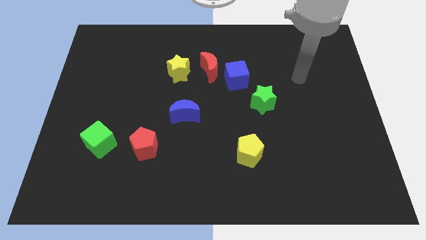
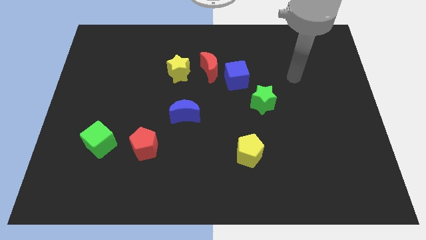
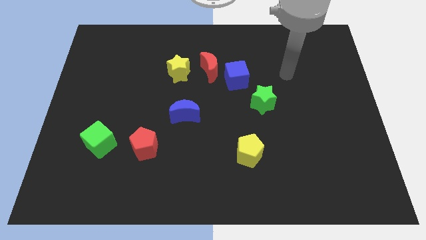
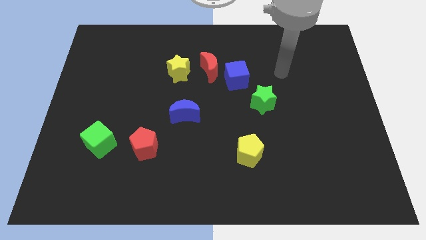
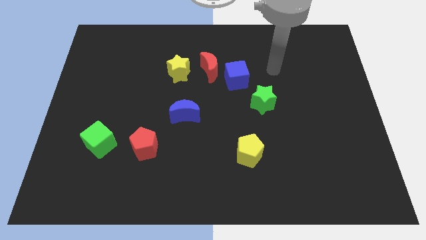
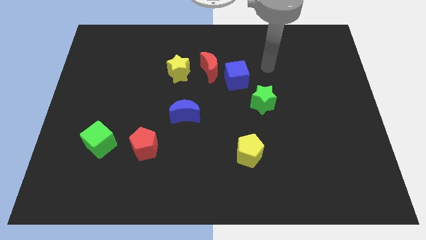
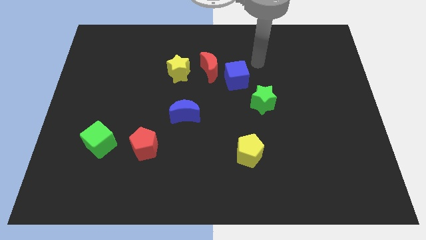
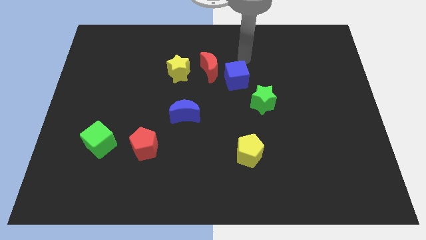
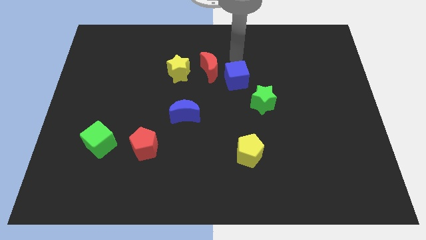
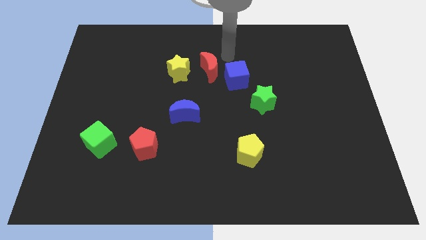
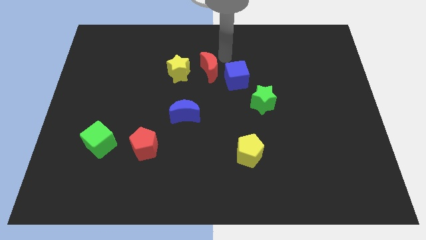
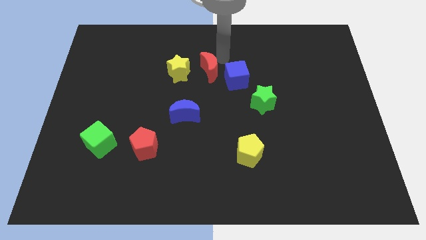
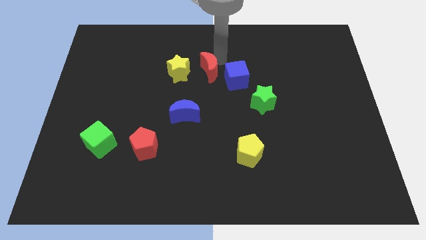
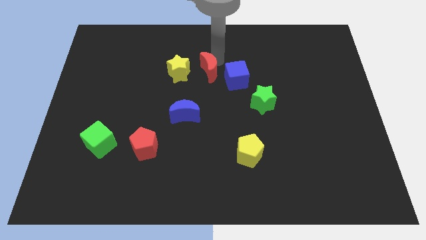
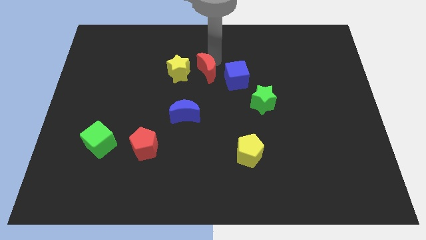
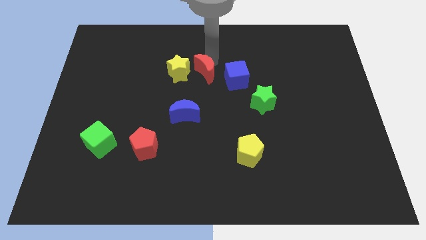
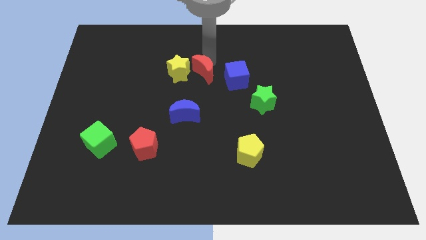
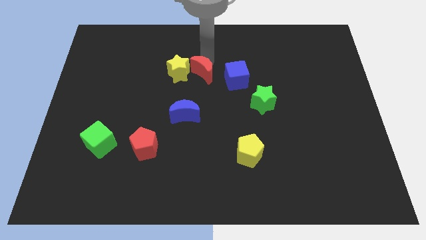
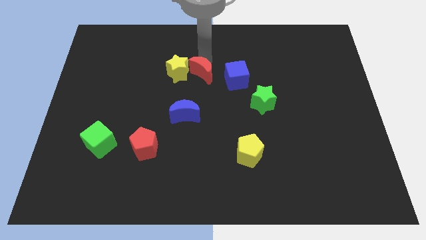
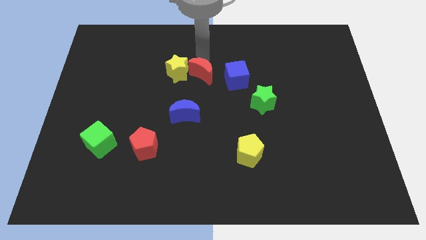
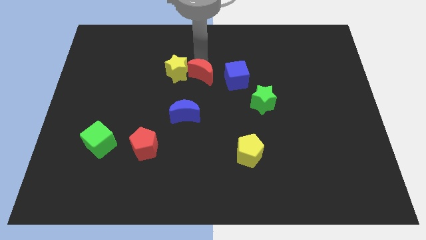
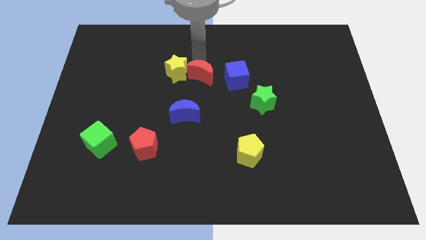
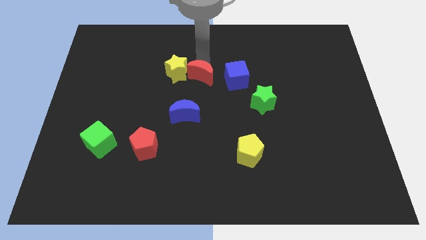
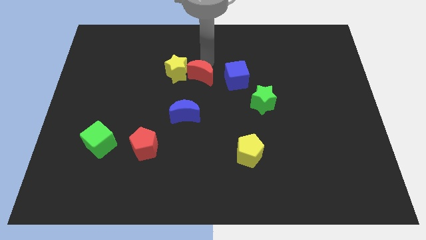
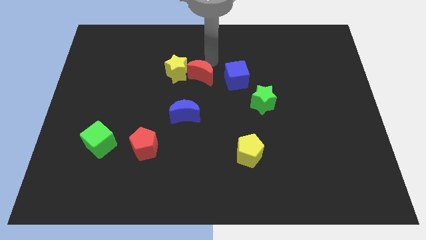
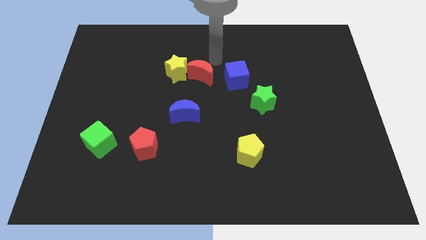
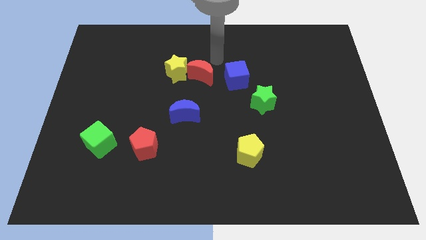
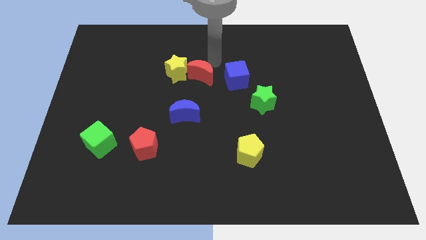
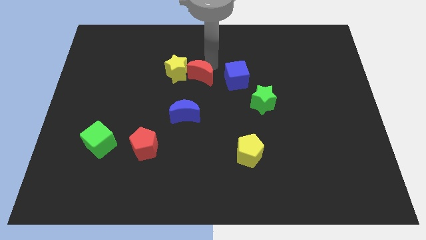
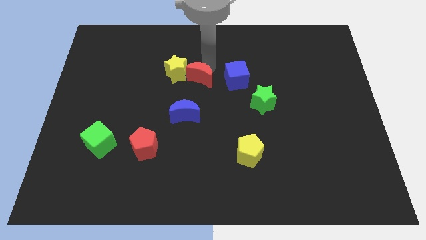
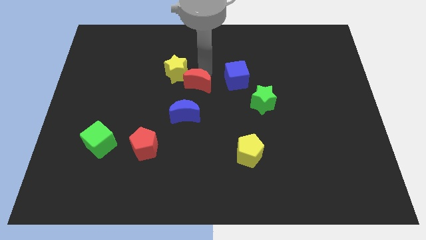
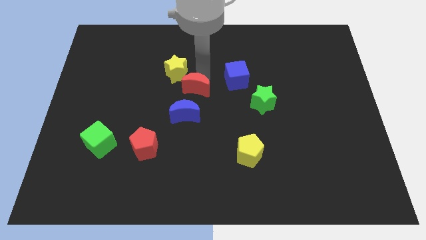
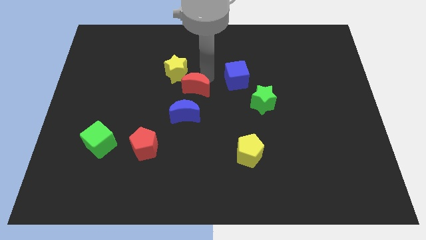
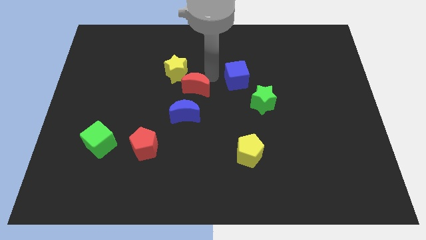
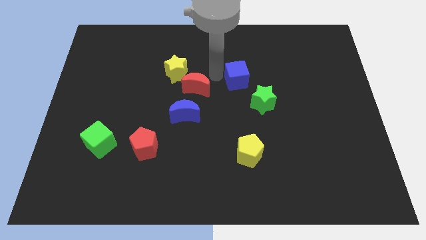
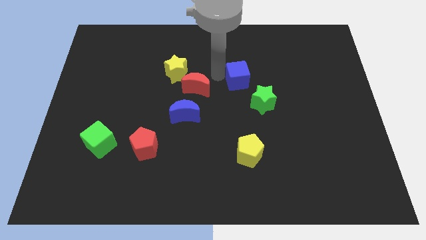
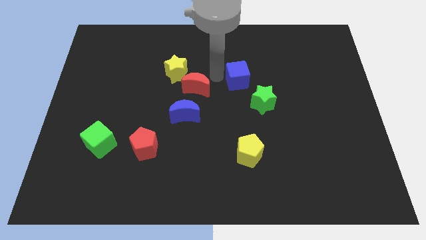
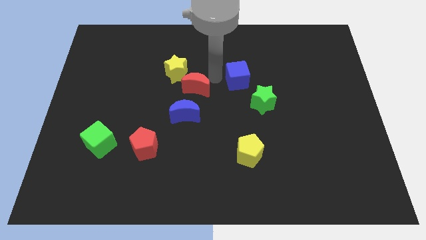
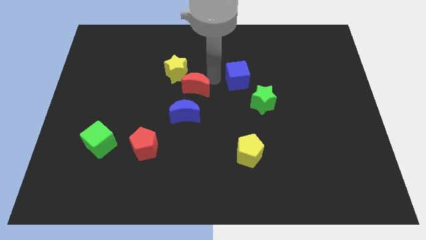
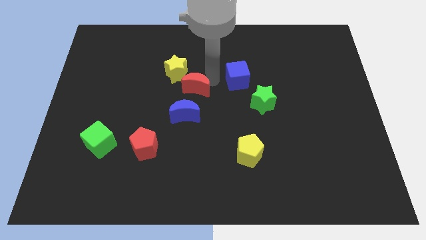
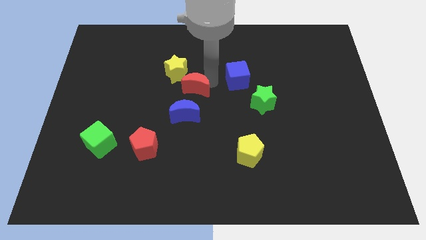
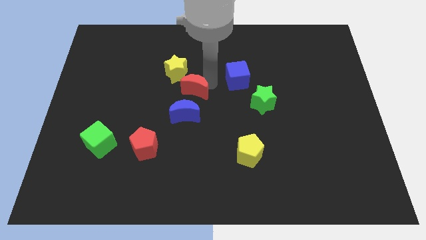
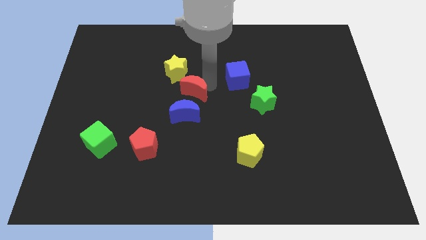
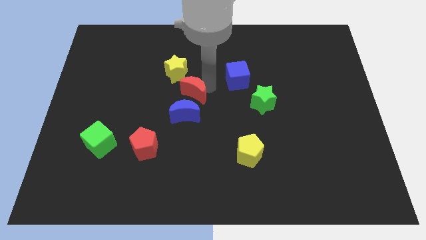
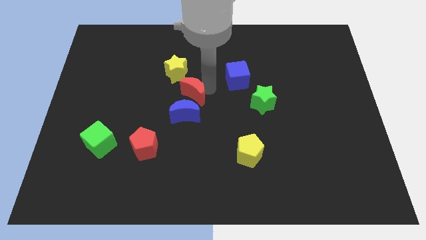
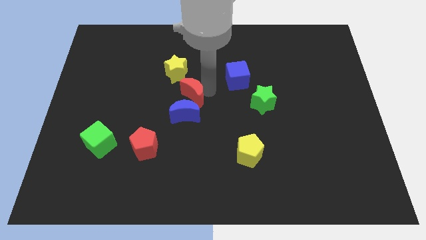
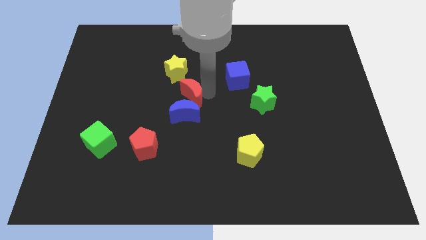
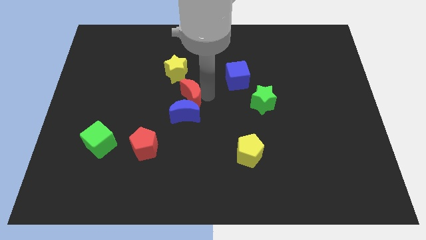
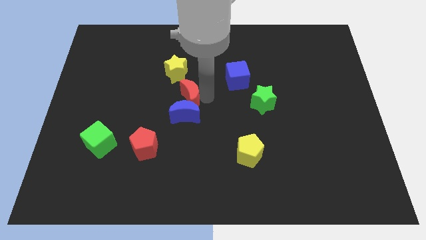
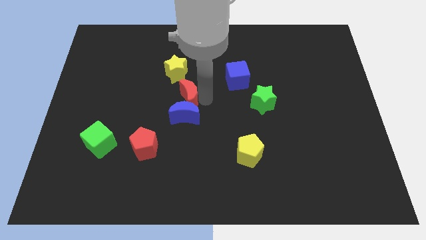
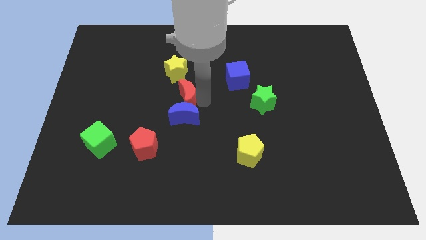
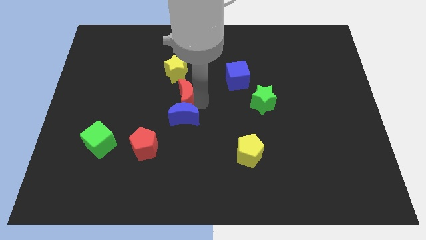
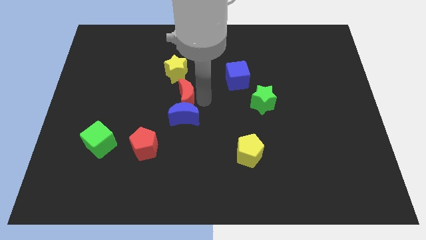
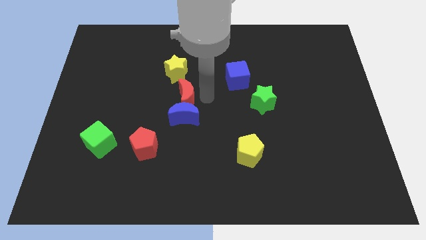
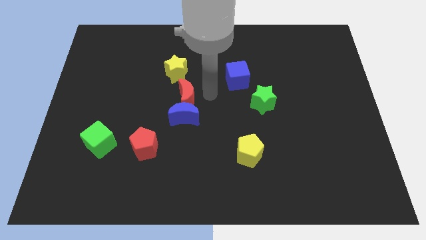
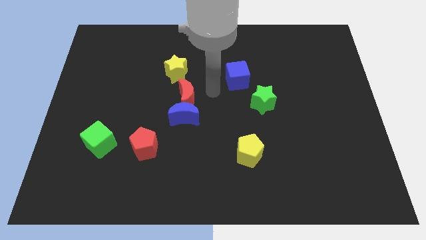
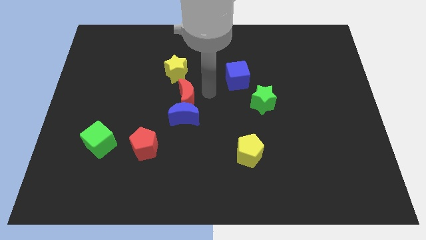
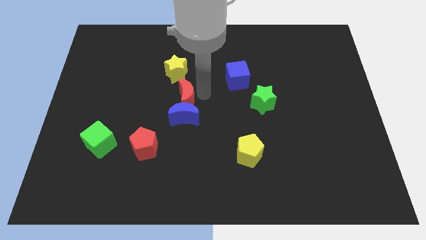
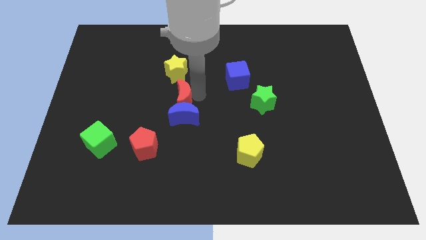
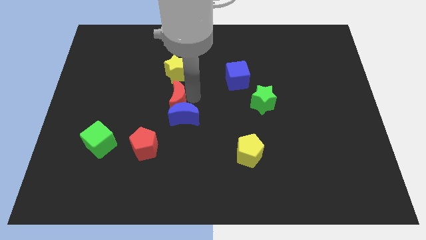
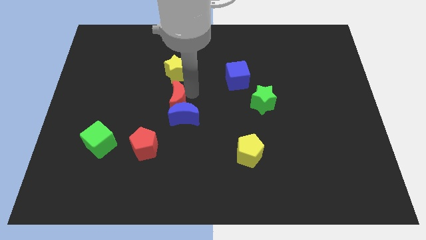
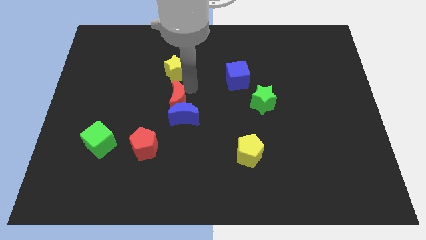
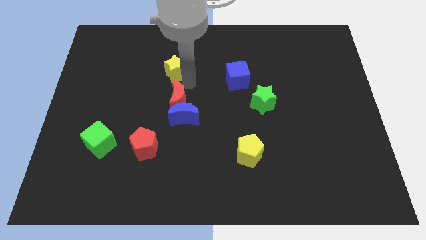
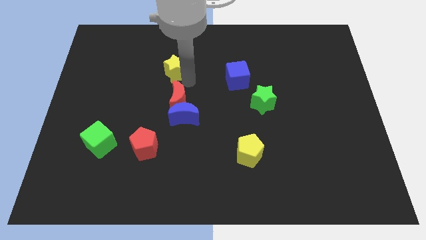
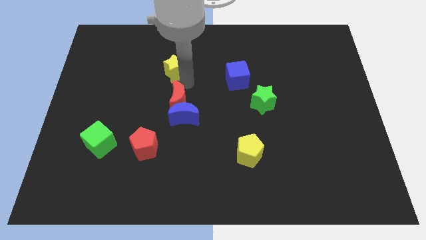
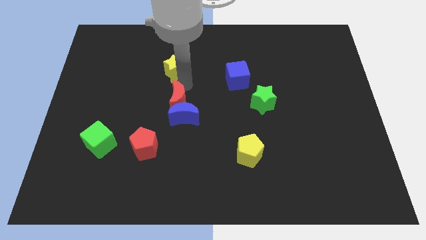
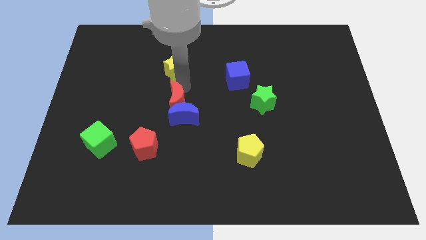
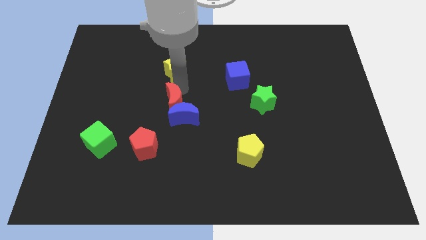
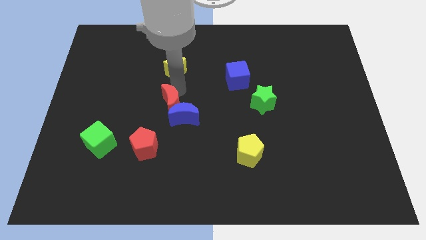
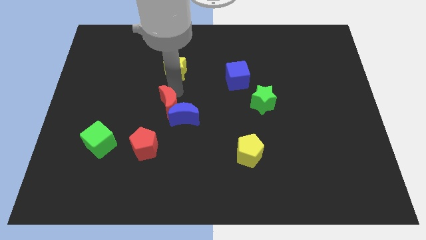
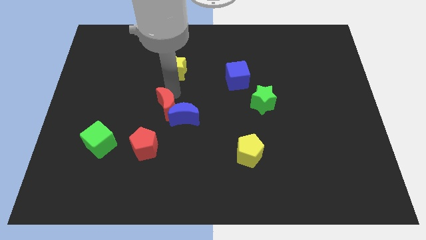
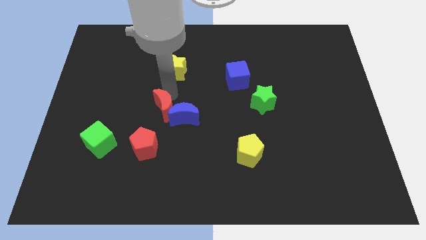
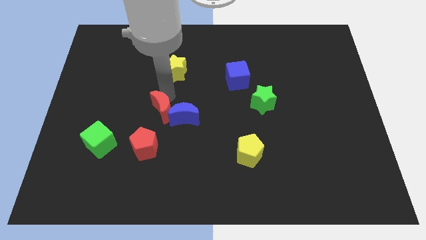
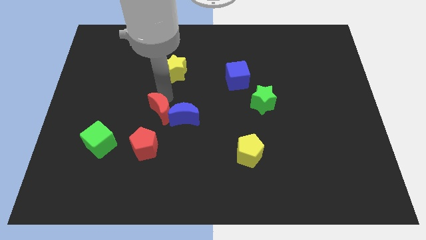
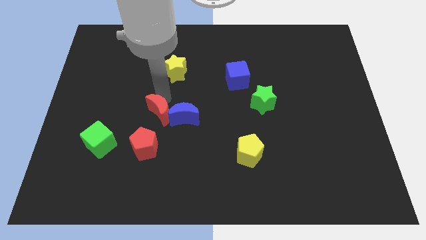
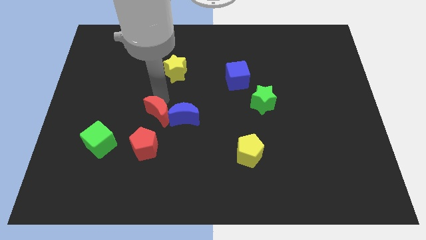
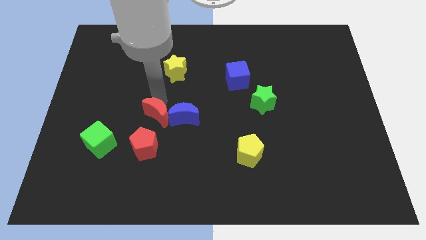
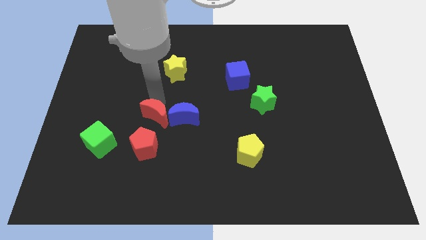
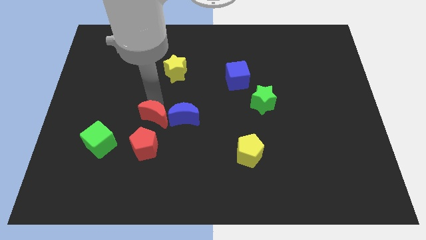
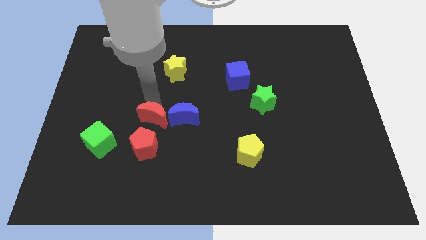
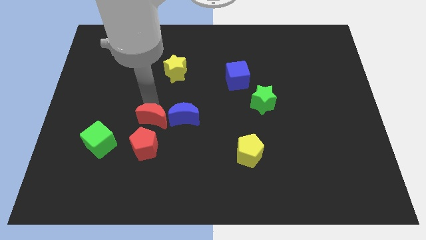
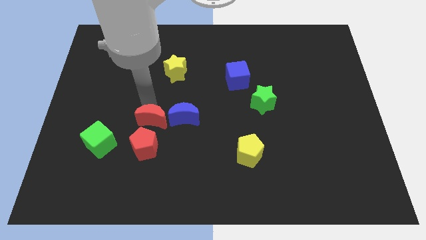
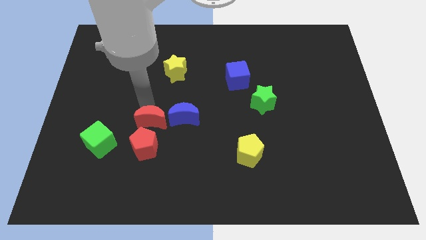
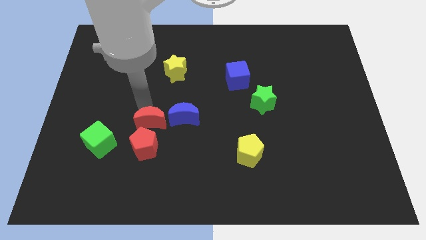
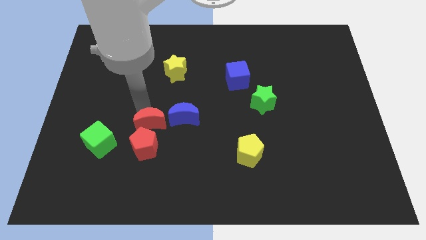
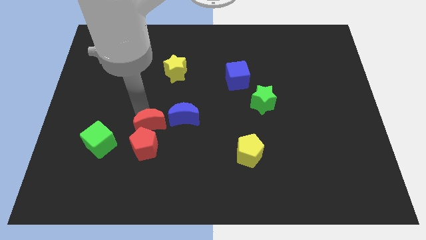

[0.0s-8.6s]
move the red moon to the right side of the green cube
